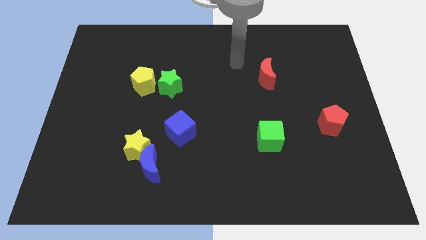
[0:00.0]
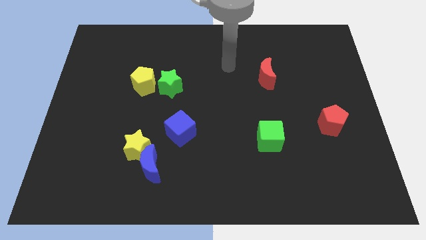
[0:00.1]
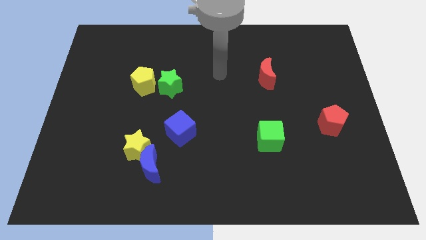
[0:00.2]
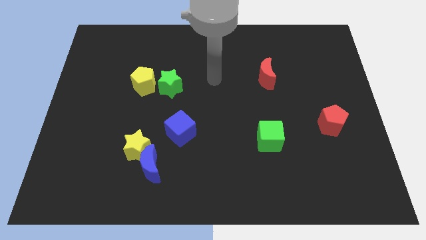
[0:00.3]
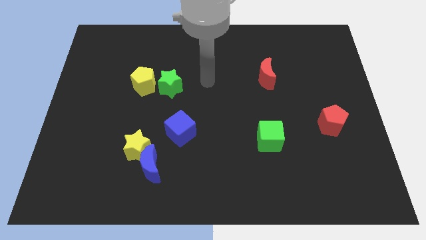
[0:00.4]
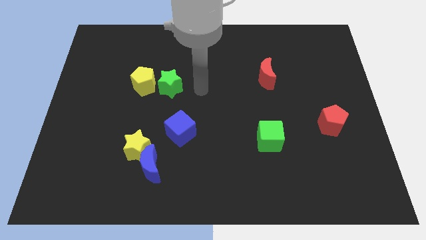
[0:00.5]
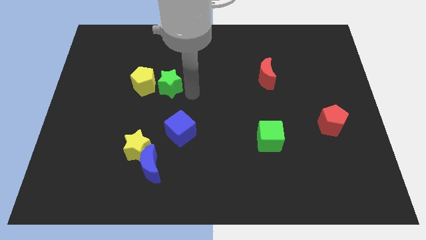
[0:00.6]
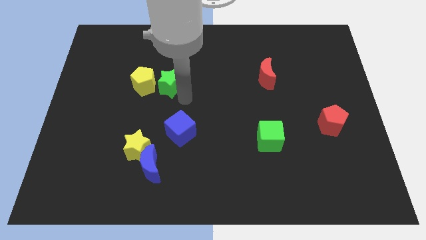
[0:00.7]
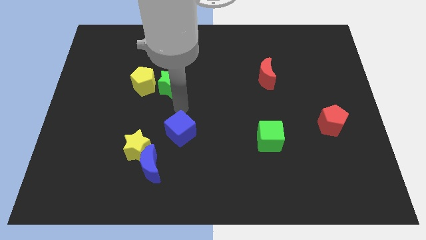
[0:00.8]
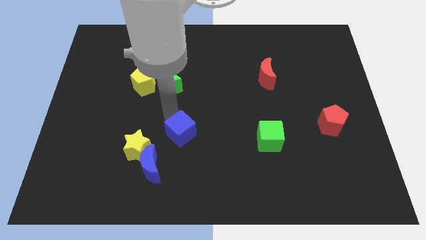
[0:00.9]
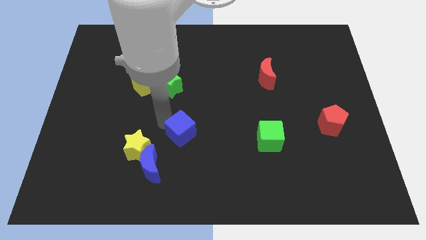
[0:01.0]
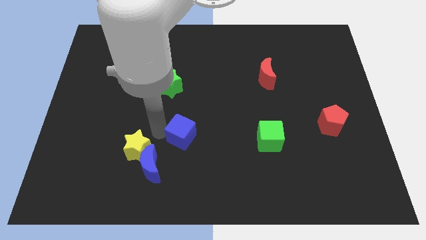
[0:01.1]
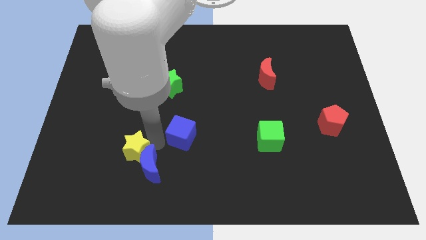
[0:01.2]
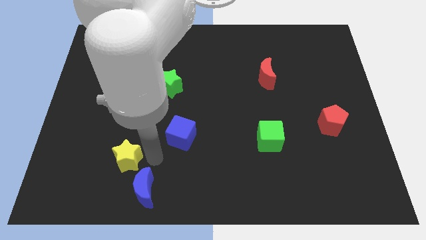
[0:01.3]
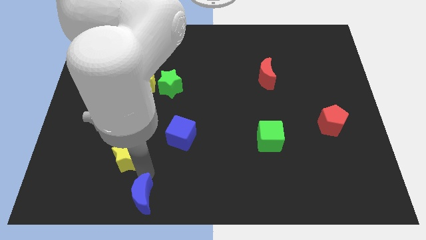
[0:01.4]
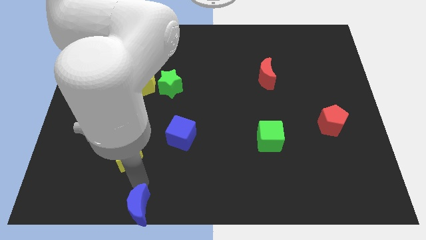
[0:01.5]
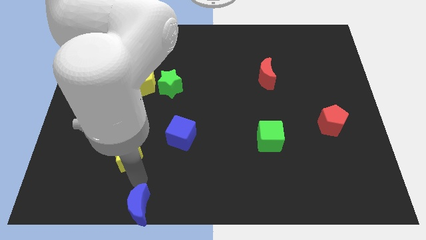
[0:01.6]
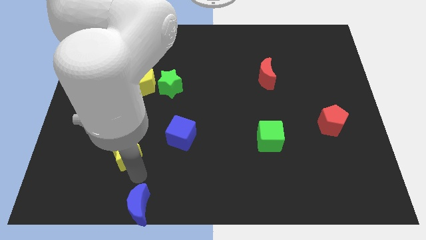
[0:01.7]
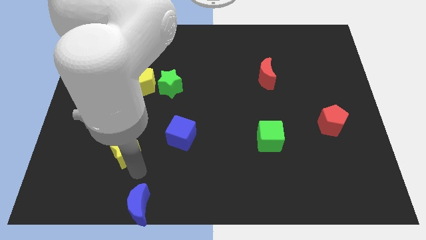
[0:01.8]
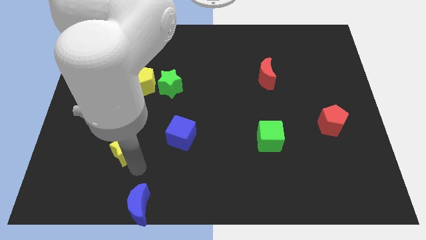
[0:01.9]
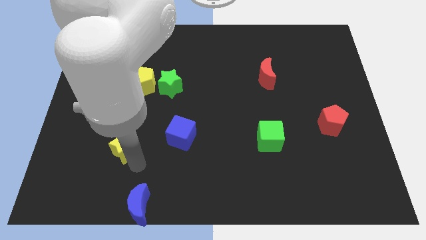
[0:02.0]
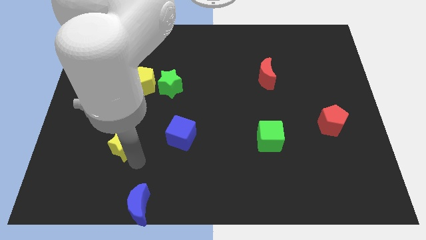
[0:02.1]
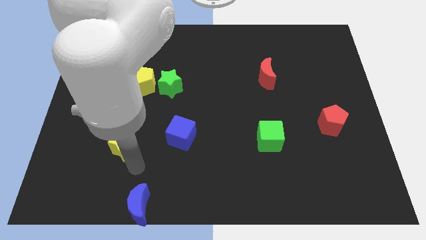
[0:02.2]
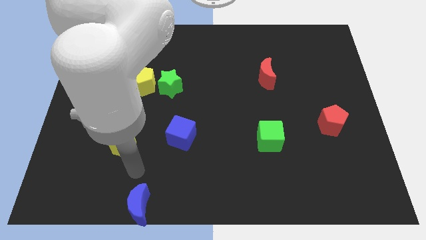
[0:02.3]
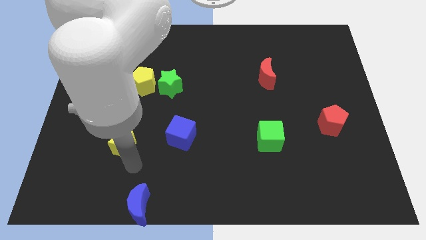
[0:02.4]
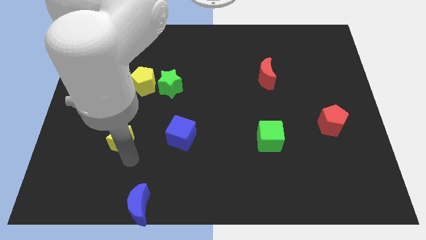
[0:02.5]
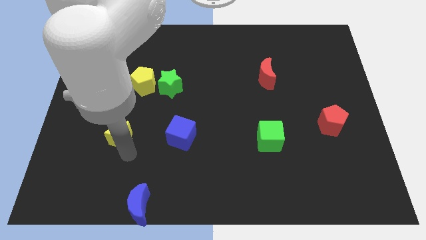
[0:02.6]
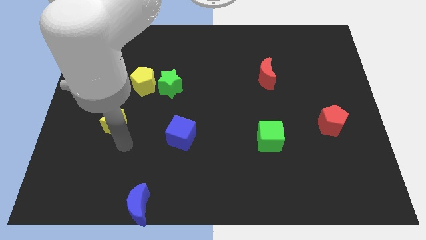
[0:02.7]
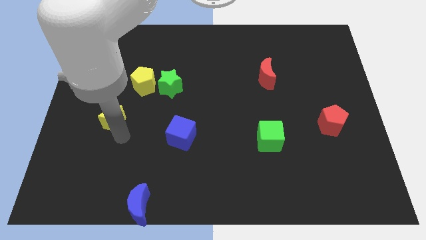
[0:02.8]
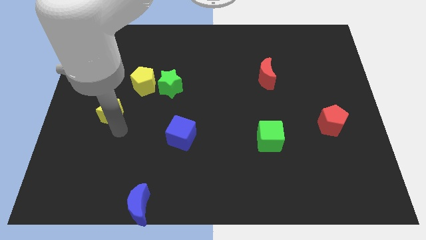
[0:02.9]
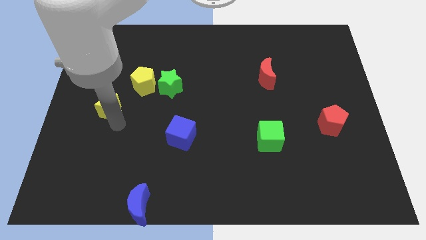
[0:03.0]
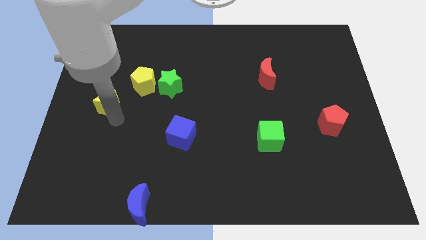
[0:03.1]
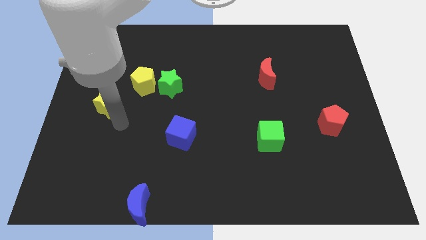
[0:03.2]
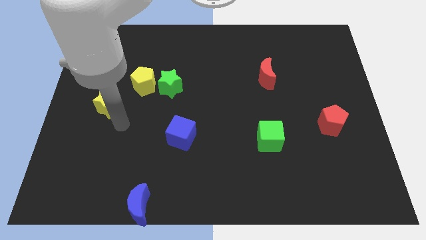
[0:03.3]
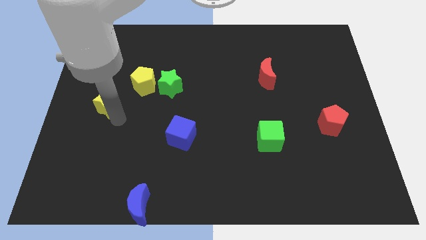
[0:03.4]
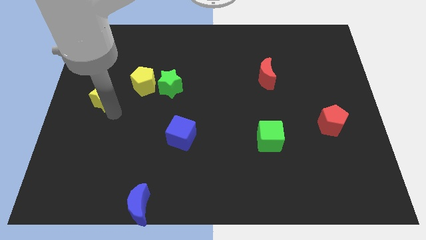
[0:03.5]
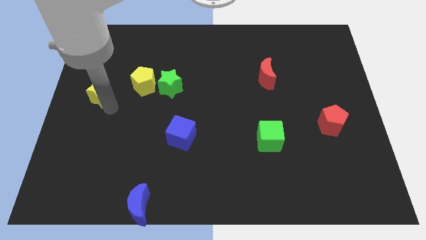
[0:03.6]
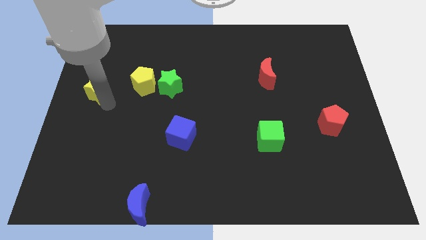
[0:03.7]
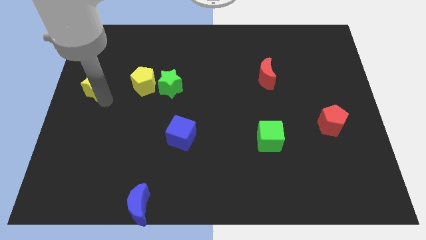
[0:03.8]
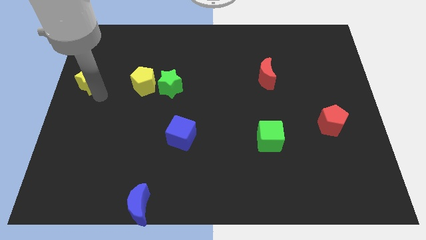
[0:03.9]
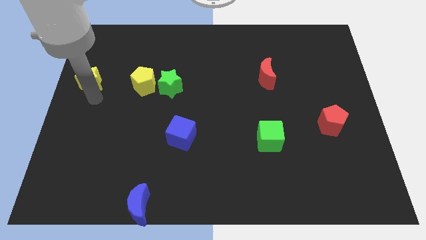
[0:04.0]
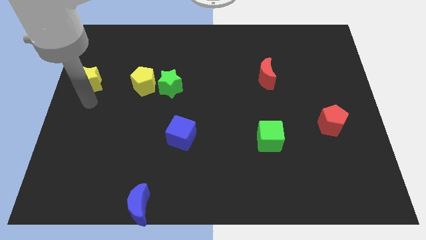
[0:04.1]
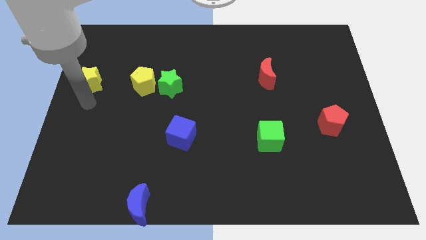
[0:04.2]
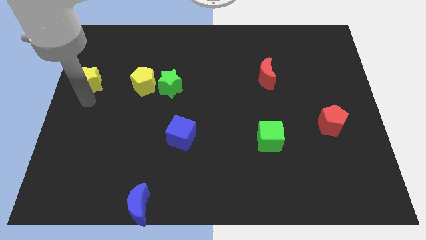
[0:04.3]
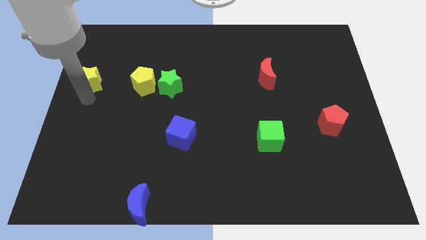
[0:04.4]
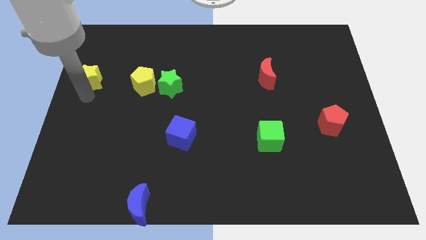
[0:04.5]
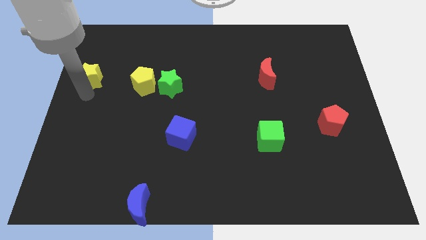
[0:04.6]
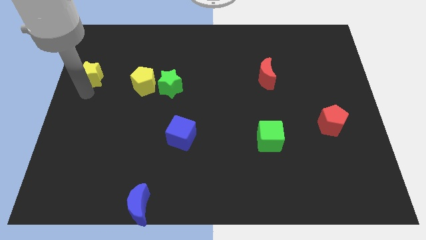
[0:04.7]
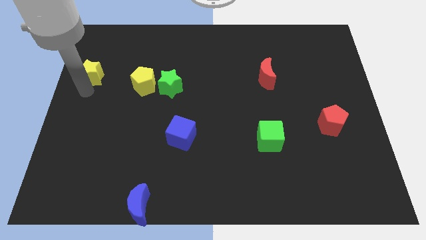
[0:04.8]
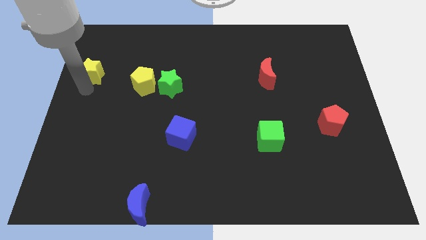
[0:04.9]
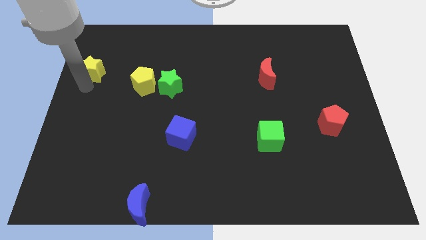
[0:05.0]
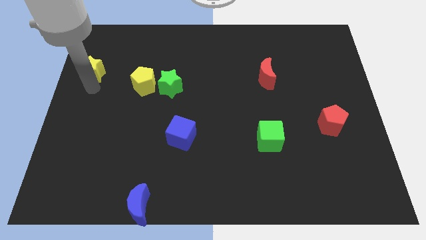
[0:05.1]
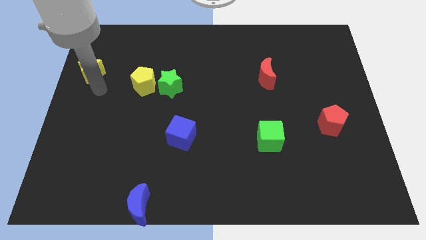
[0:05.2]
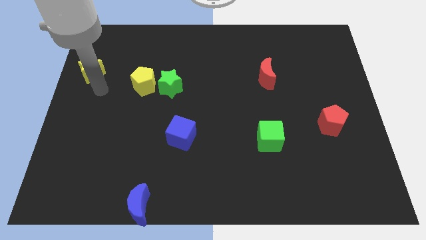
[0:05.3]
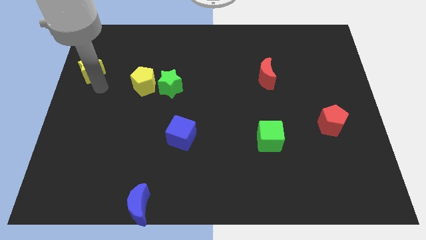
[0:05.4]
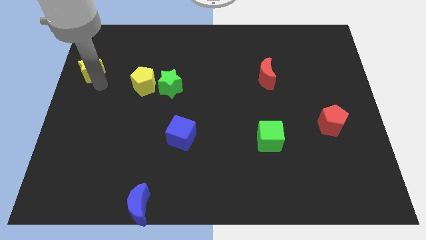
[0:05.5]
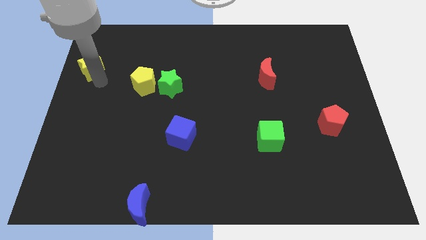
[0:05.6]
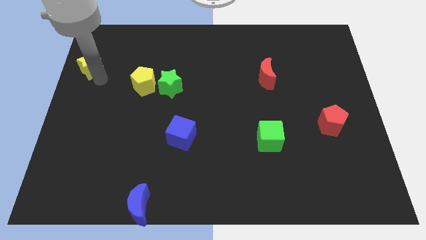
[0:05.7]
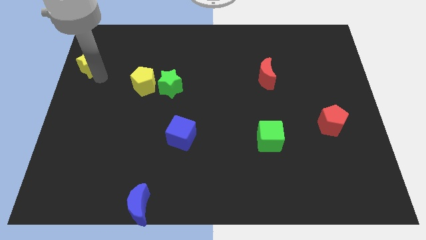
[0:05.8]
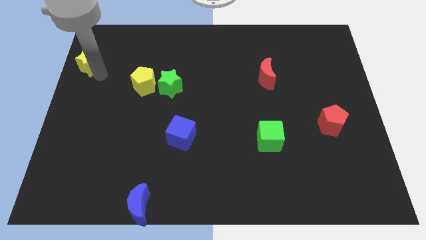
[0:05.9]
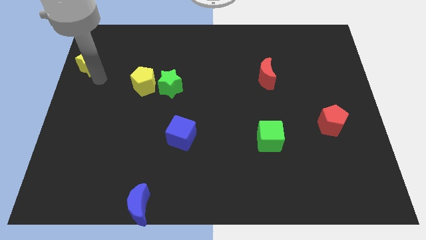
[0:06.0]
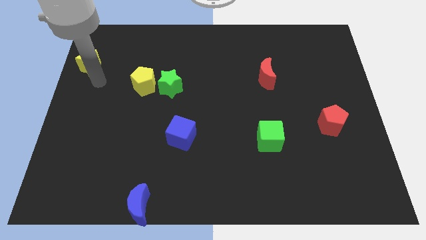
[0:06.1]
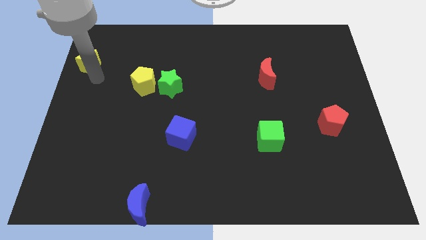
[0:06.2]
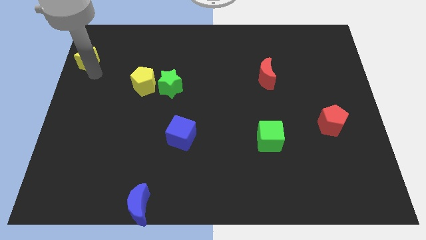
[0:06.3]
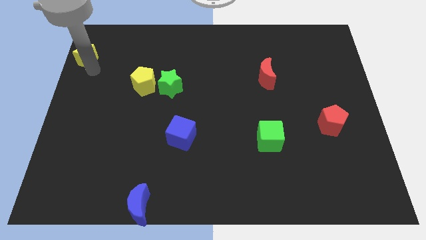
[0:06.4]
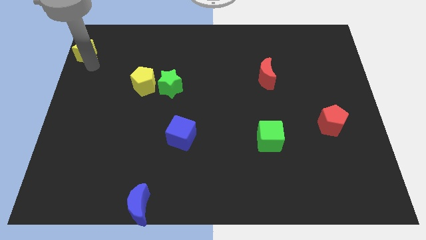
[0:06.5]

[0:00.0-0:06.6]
slide the yellow star to the top left corner

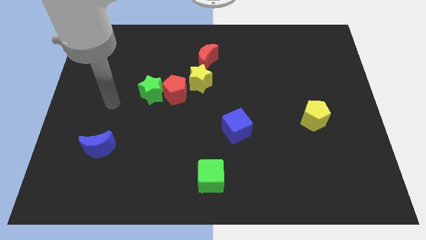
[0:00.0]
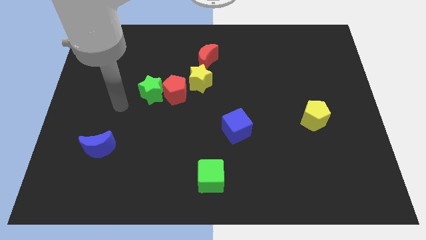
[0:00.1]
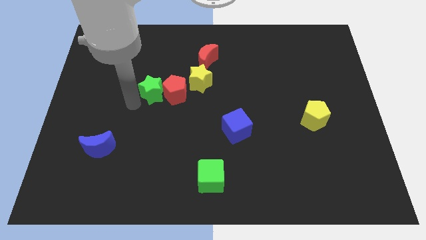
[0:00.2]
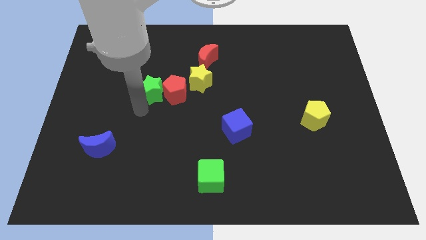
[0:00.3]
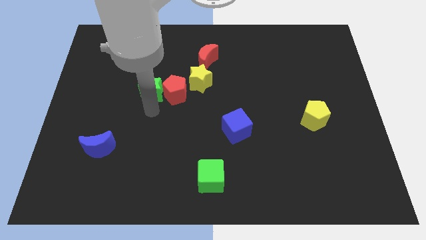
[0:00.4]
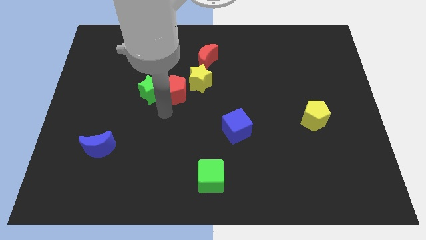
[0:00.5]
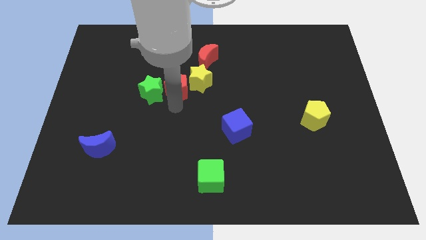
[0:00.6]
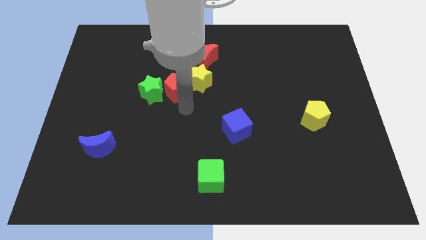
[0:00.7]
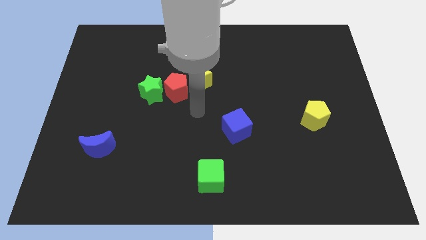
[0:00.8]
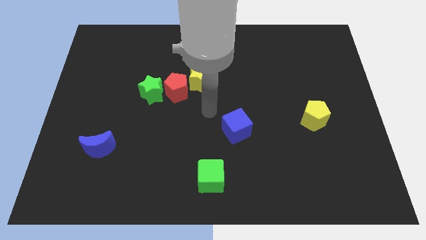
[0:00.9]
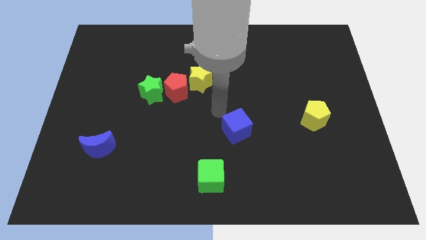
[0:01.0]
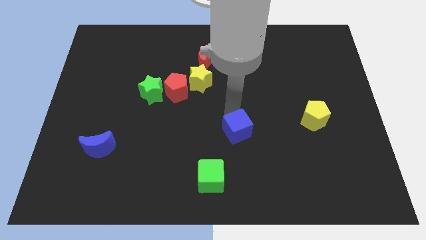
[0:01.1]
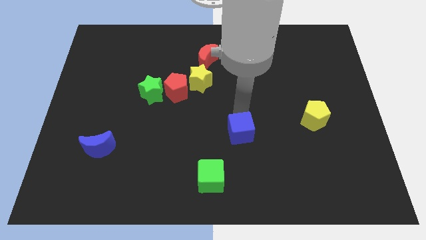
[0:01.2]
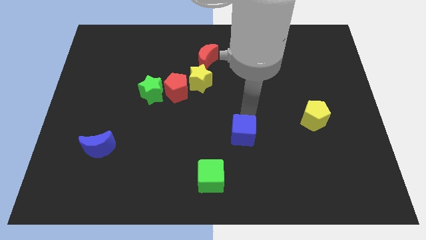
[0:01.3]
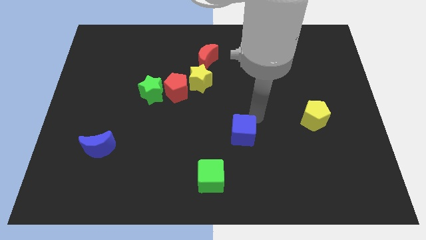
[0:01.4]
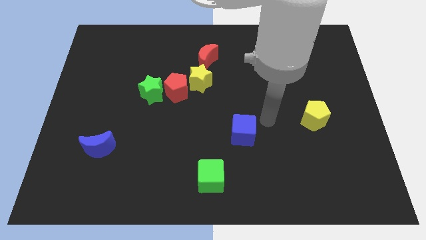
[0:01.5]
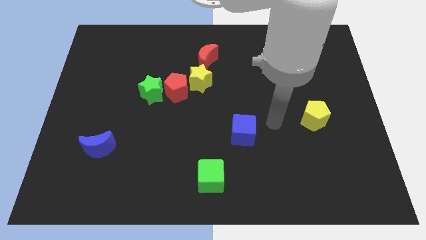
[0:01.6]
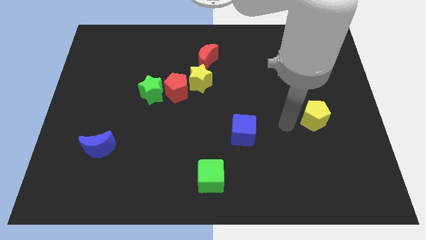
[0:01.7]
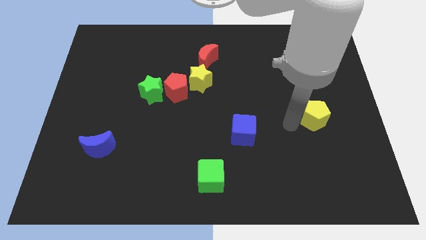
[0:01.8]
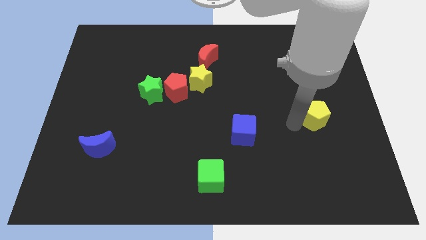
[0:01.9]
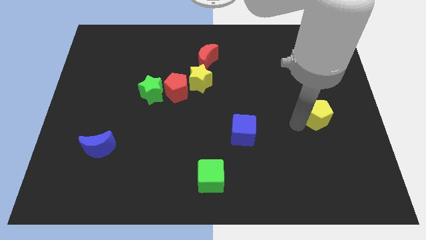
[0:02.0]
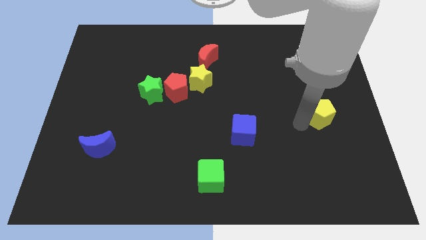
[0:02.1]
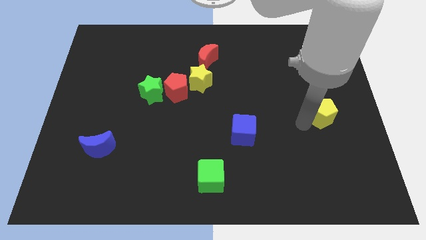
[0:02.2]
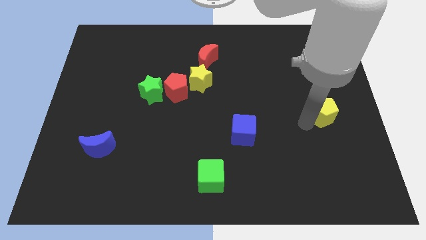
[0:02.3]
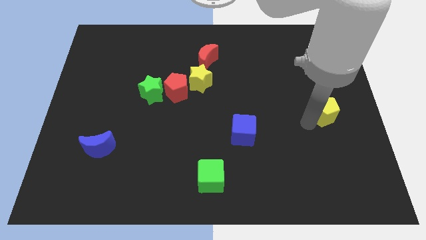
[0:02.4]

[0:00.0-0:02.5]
put the yellow pentagon to the right side of the board
